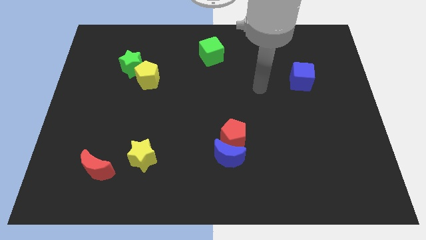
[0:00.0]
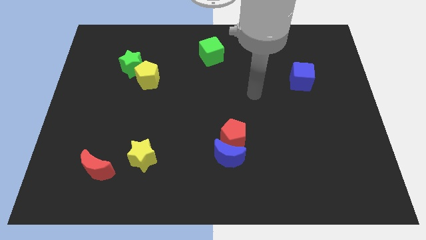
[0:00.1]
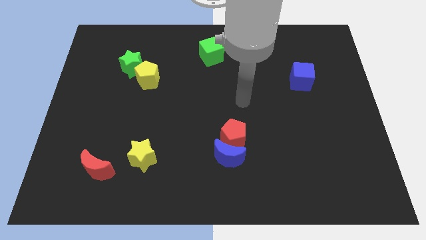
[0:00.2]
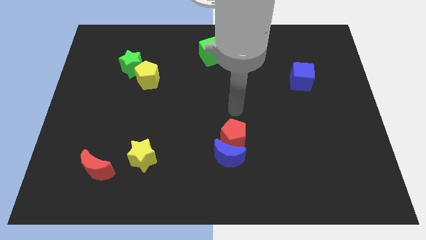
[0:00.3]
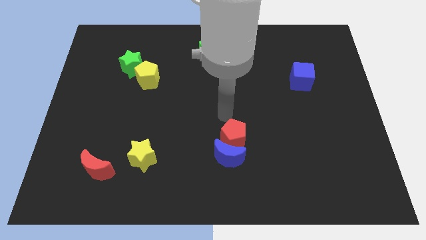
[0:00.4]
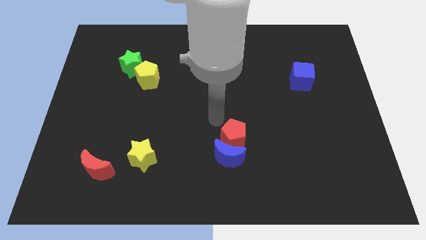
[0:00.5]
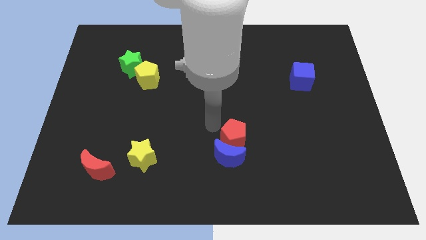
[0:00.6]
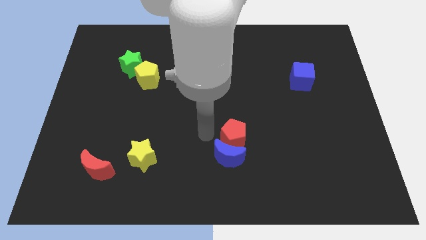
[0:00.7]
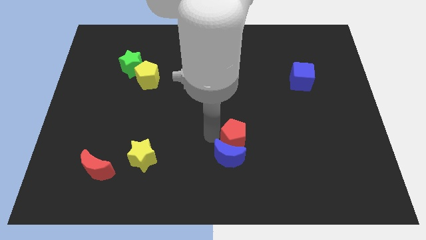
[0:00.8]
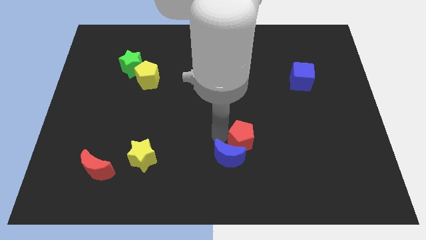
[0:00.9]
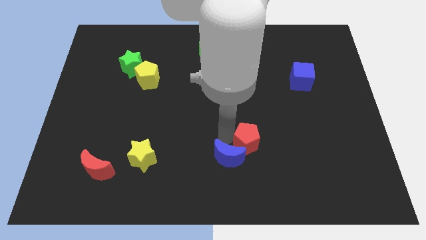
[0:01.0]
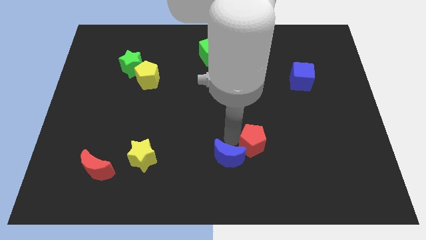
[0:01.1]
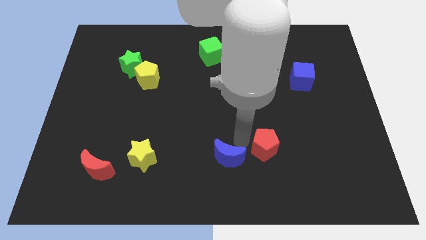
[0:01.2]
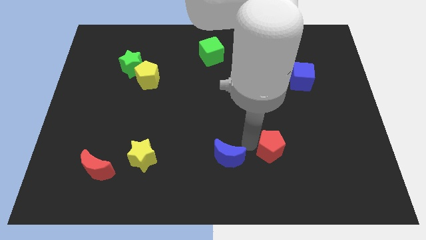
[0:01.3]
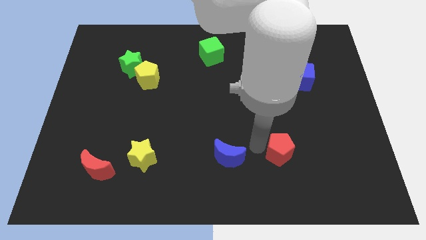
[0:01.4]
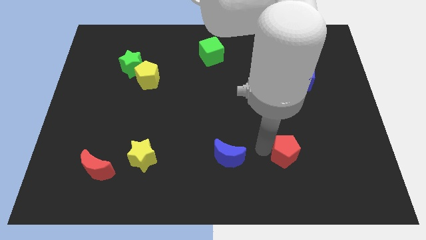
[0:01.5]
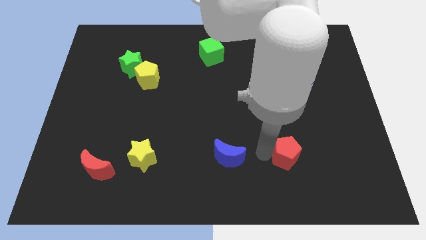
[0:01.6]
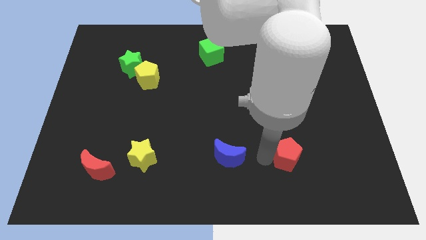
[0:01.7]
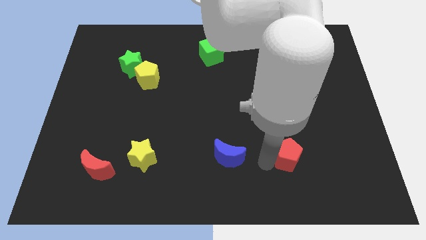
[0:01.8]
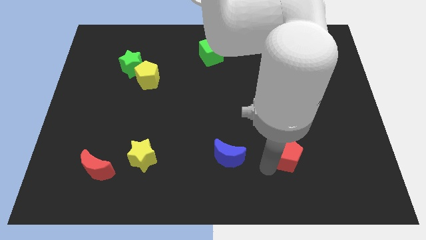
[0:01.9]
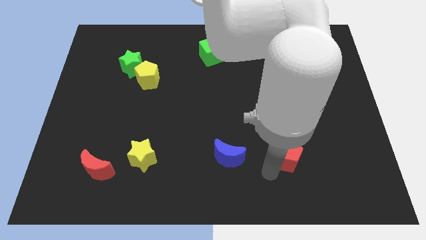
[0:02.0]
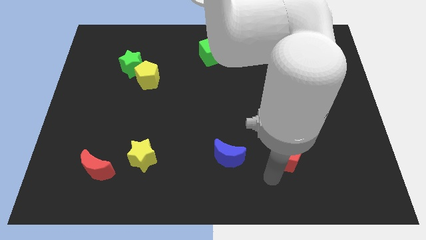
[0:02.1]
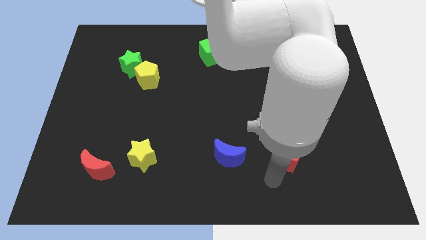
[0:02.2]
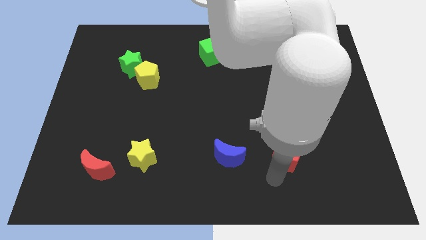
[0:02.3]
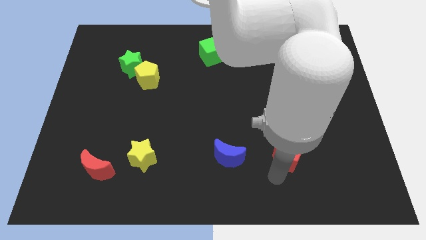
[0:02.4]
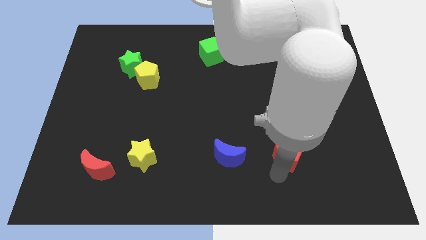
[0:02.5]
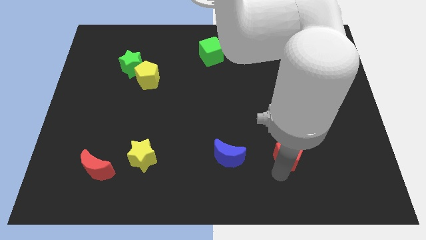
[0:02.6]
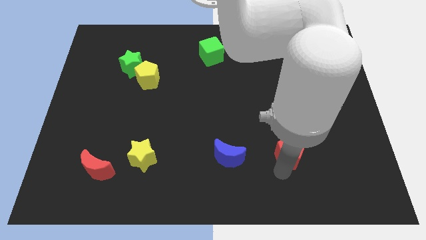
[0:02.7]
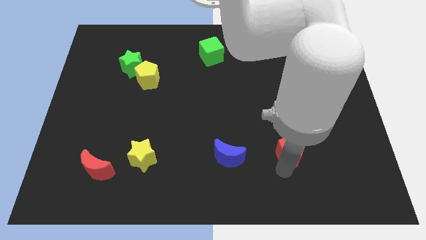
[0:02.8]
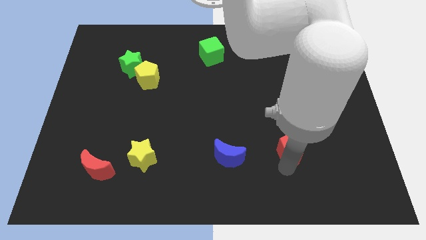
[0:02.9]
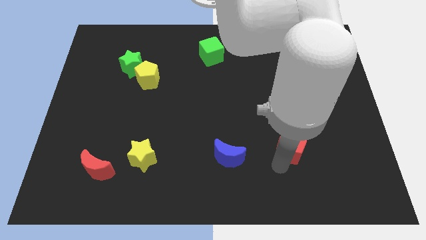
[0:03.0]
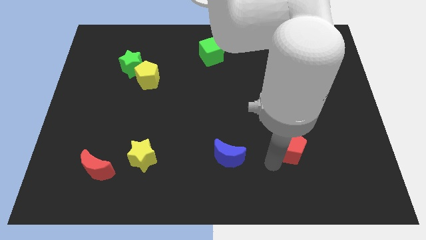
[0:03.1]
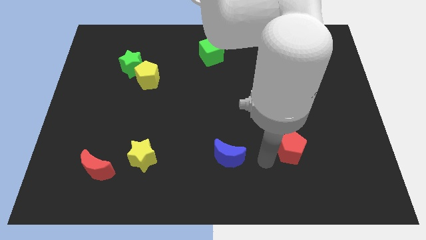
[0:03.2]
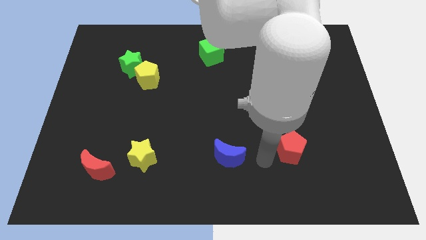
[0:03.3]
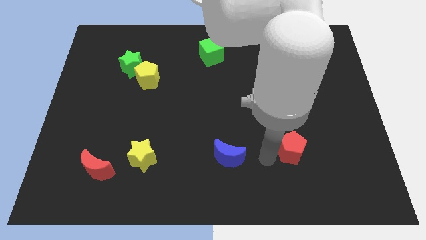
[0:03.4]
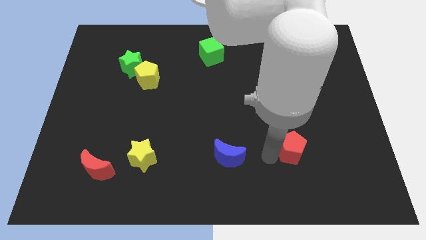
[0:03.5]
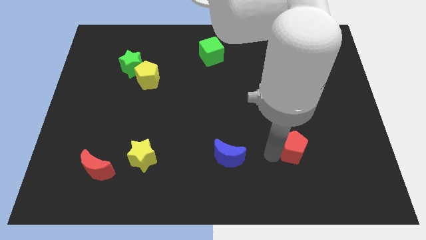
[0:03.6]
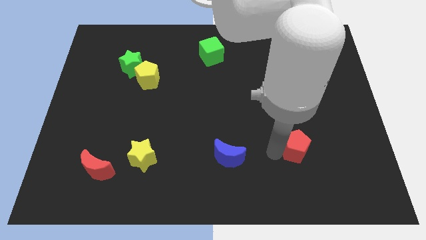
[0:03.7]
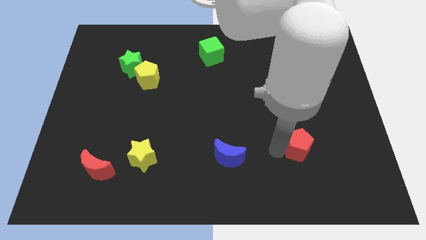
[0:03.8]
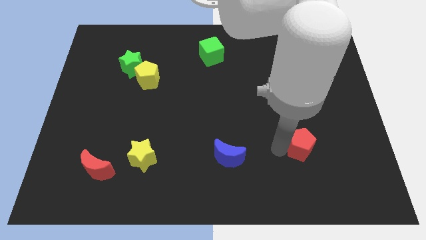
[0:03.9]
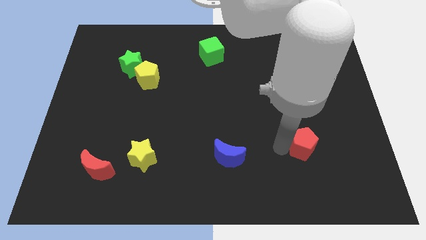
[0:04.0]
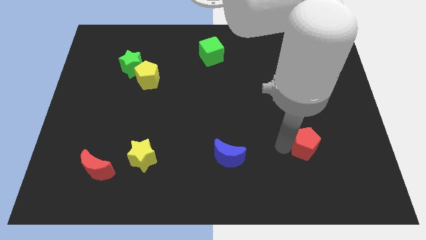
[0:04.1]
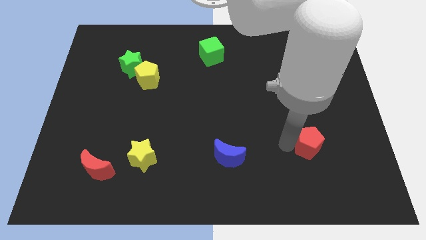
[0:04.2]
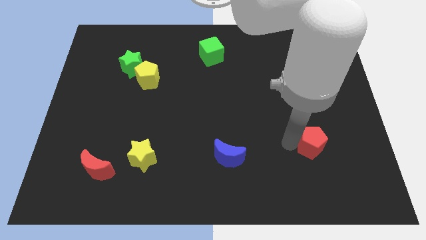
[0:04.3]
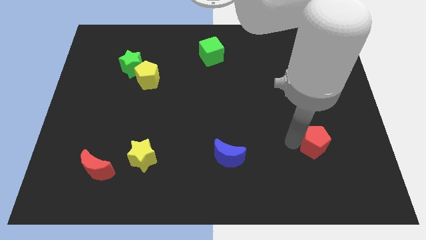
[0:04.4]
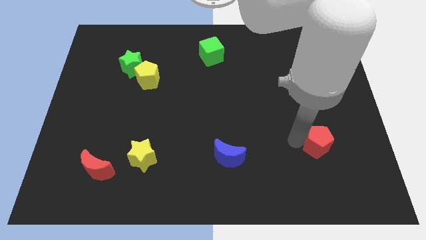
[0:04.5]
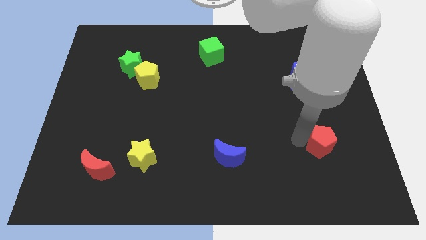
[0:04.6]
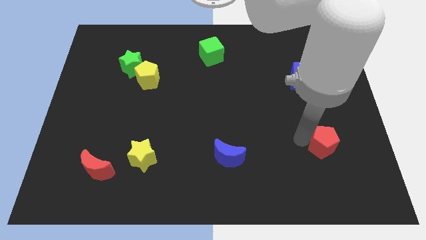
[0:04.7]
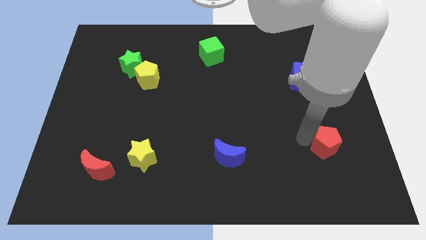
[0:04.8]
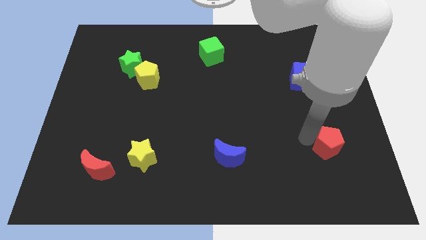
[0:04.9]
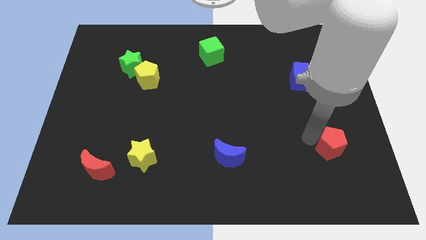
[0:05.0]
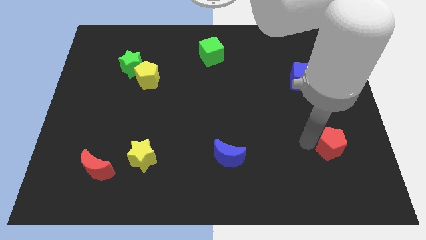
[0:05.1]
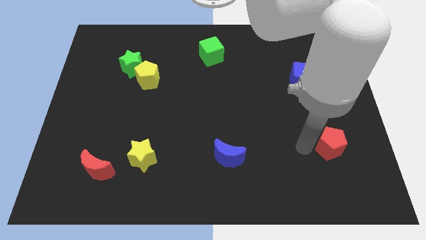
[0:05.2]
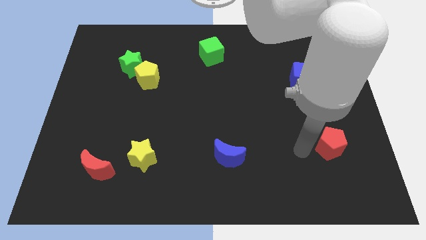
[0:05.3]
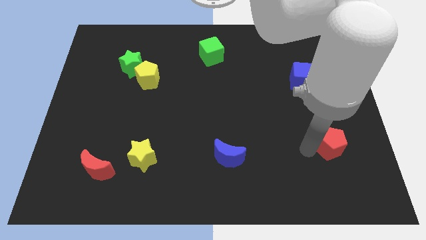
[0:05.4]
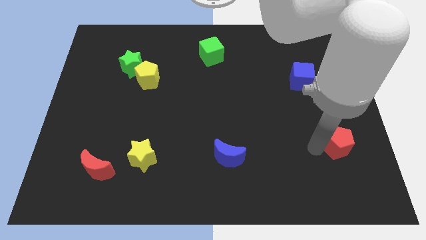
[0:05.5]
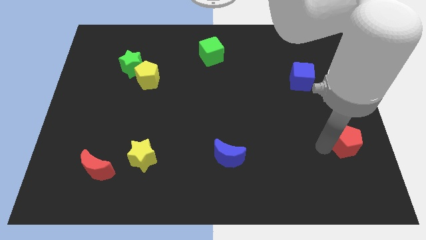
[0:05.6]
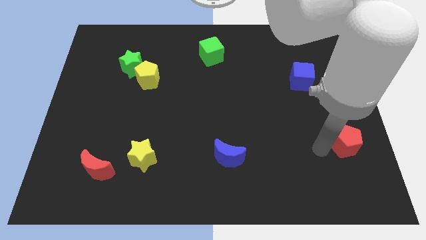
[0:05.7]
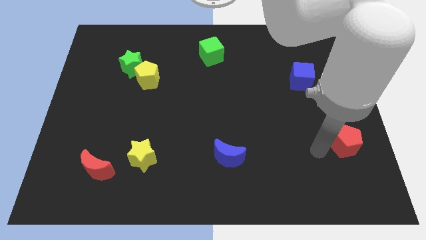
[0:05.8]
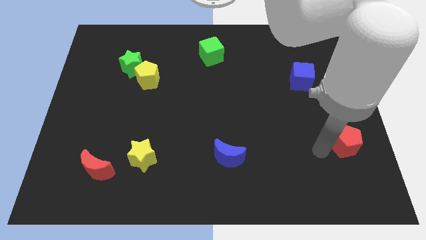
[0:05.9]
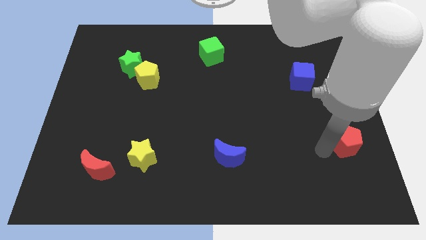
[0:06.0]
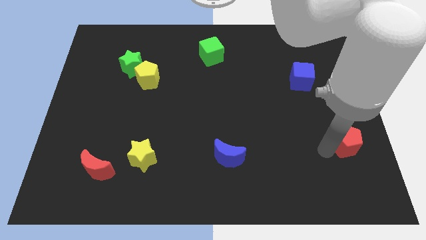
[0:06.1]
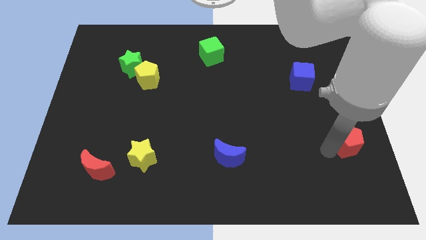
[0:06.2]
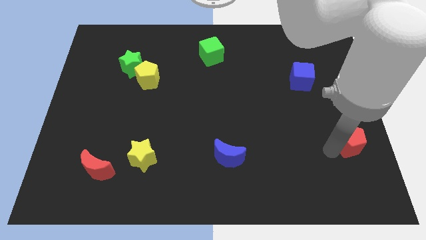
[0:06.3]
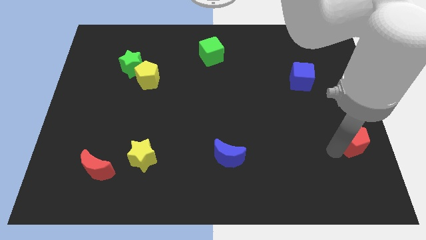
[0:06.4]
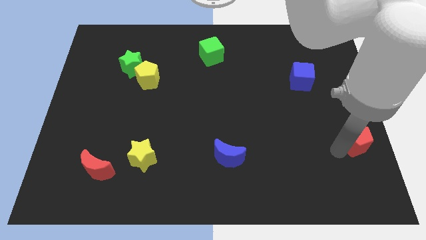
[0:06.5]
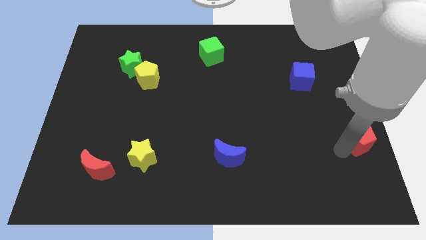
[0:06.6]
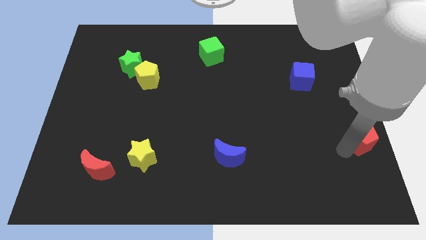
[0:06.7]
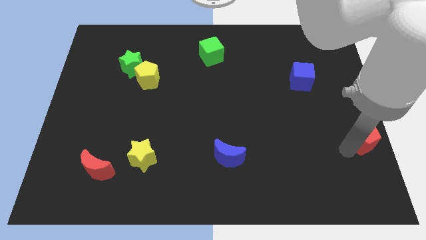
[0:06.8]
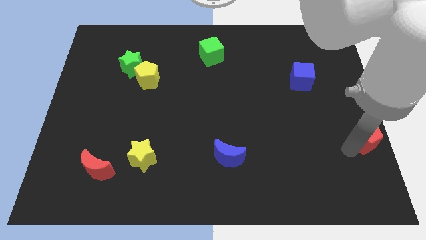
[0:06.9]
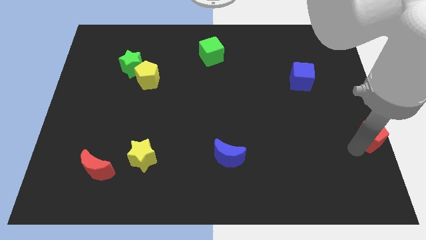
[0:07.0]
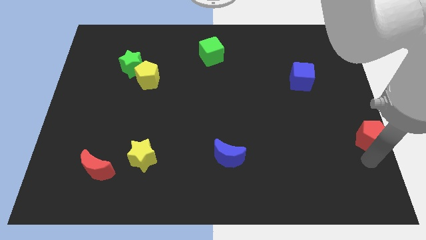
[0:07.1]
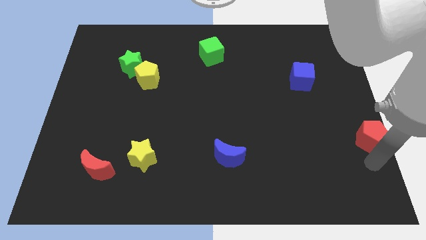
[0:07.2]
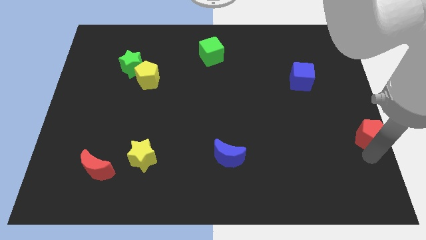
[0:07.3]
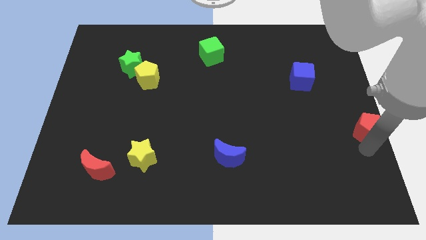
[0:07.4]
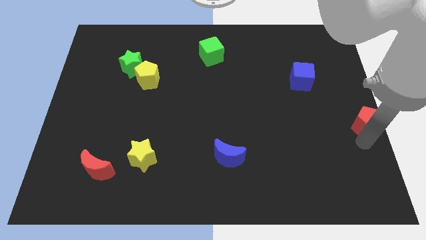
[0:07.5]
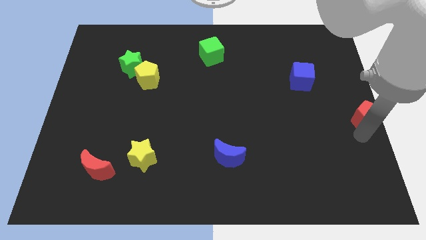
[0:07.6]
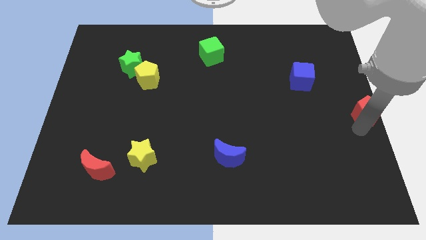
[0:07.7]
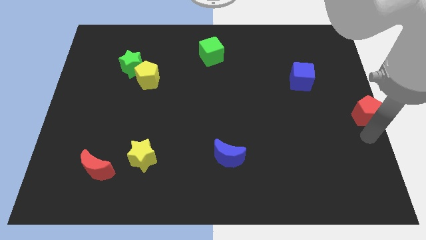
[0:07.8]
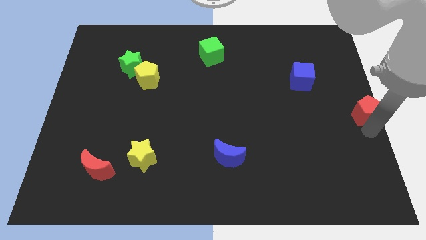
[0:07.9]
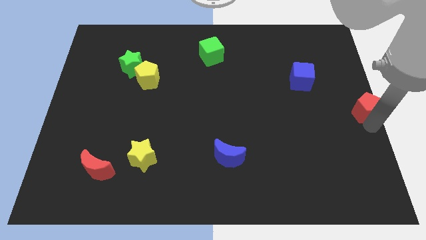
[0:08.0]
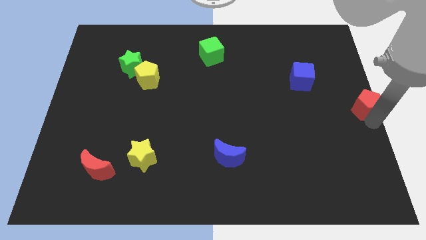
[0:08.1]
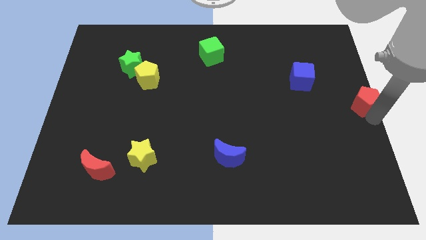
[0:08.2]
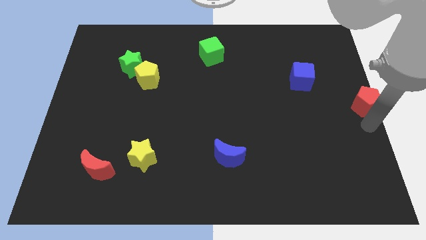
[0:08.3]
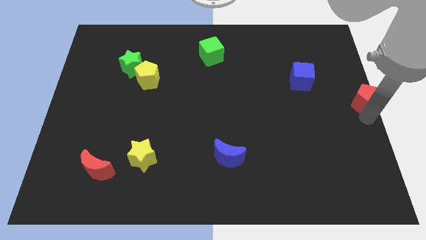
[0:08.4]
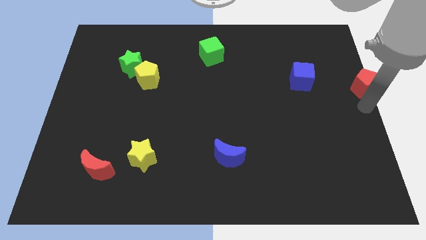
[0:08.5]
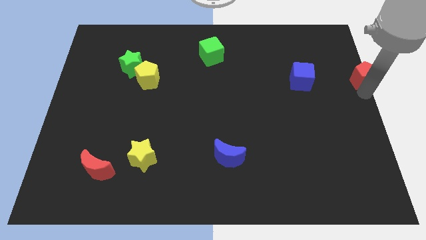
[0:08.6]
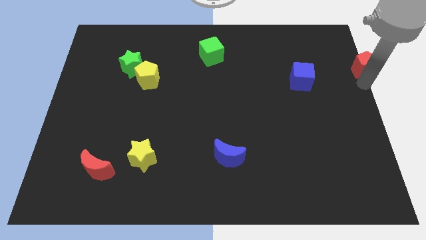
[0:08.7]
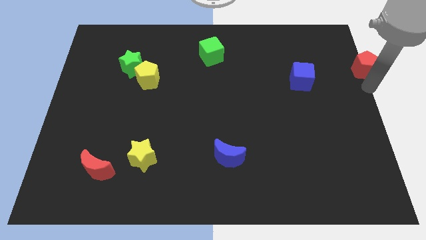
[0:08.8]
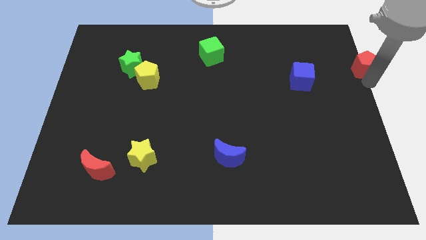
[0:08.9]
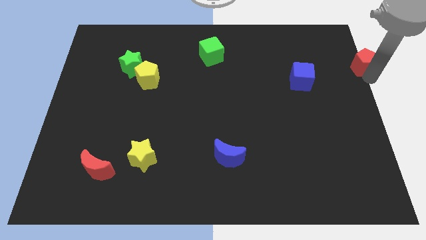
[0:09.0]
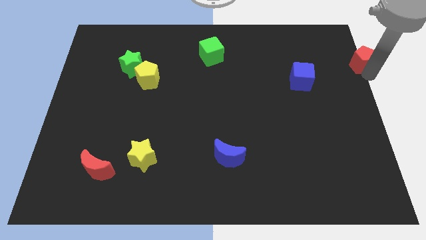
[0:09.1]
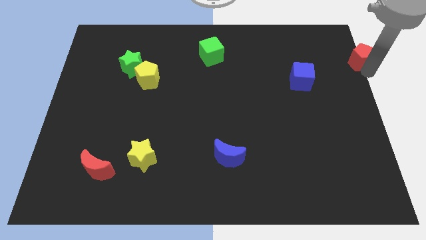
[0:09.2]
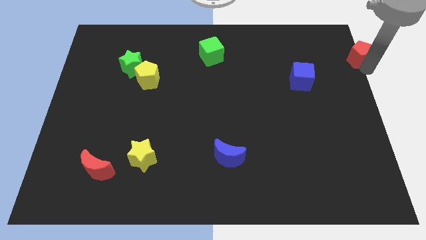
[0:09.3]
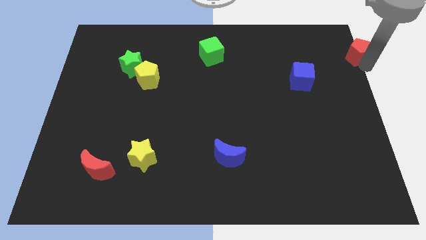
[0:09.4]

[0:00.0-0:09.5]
put the red pentagon to the upper right corner
